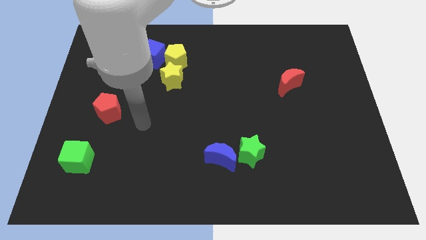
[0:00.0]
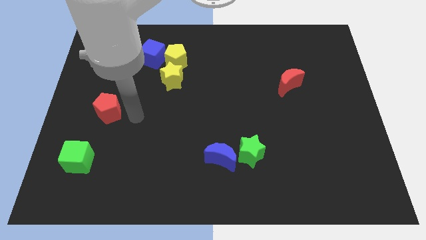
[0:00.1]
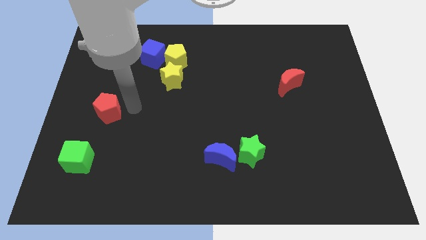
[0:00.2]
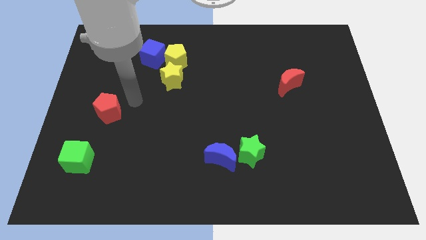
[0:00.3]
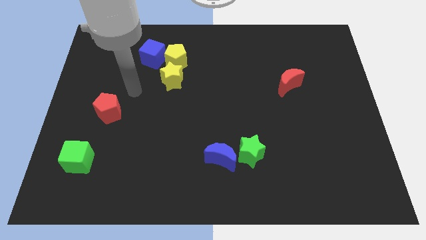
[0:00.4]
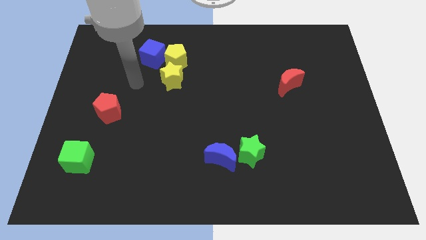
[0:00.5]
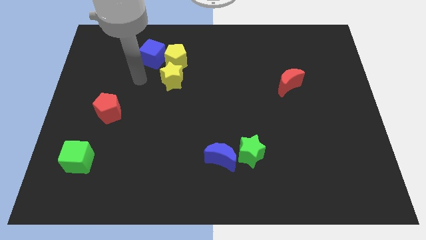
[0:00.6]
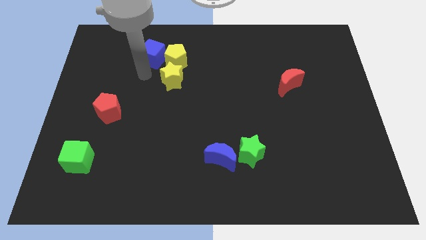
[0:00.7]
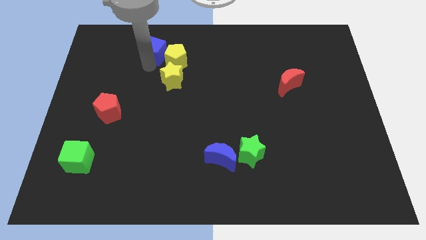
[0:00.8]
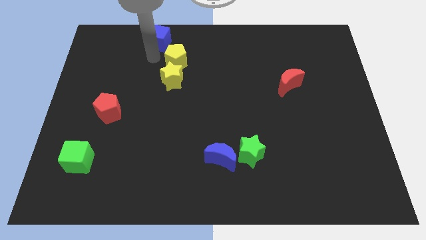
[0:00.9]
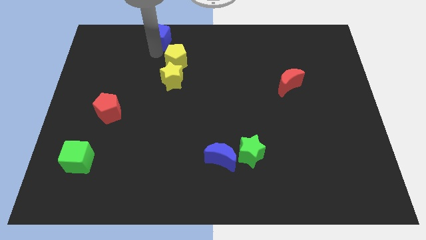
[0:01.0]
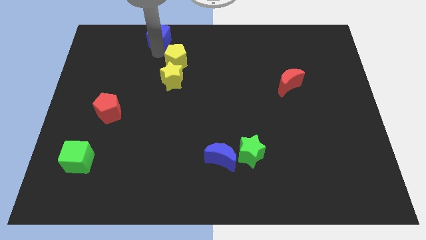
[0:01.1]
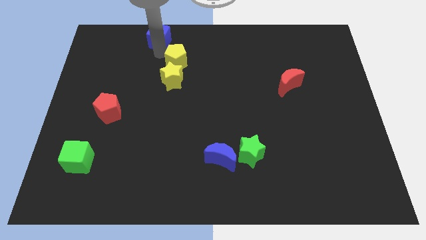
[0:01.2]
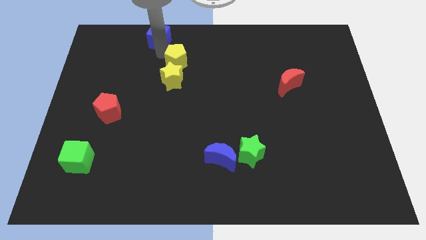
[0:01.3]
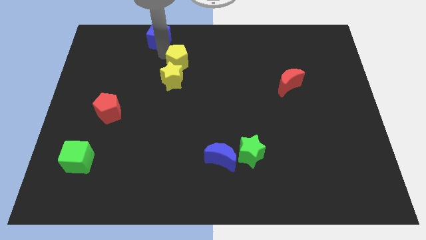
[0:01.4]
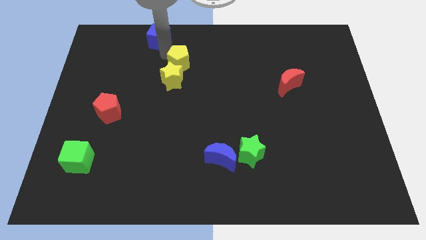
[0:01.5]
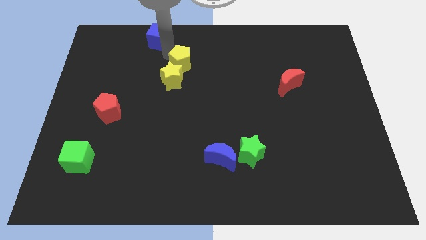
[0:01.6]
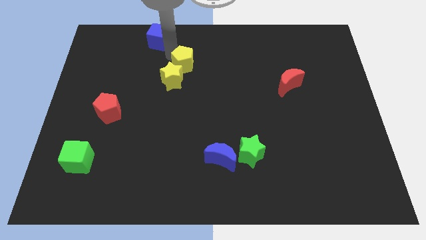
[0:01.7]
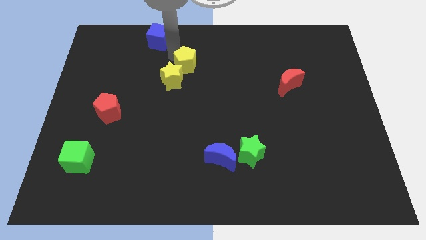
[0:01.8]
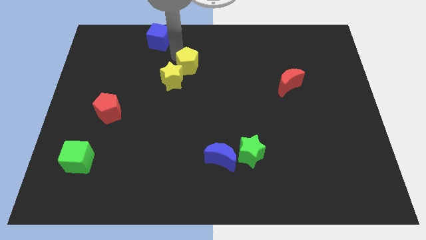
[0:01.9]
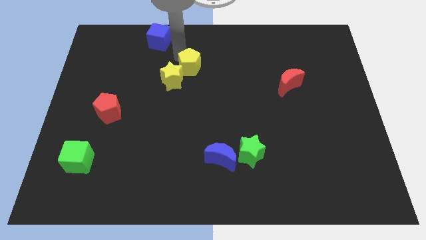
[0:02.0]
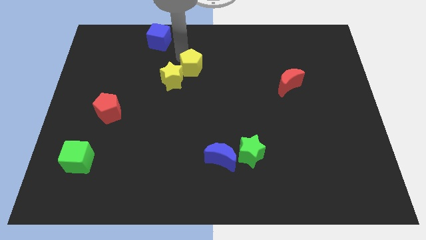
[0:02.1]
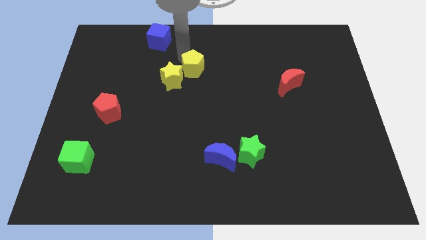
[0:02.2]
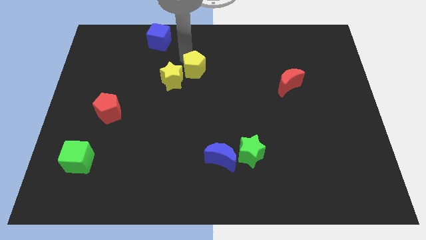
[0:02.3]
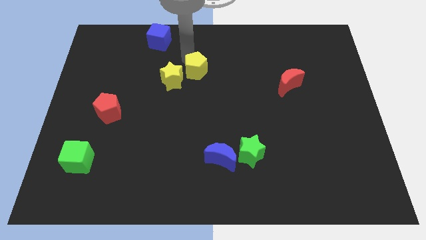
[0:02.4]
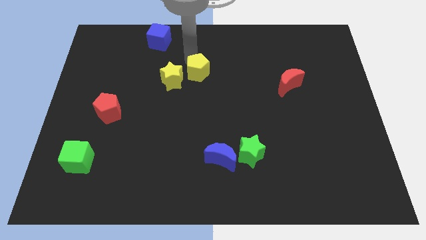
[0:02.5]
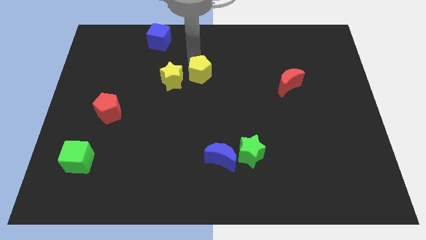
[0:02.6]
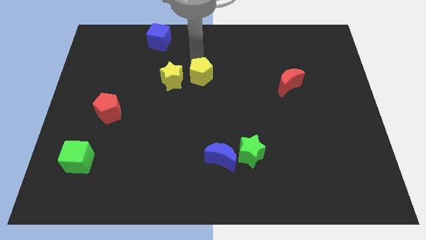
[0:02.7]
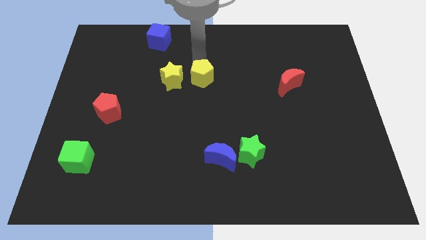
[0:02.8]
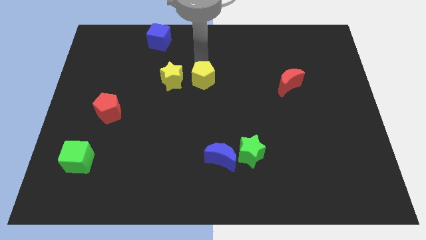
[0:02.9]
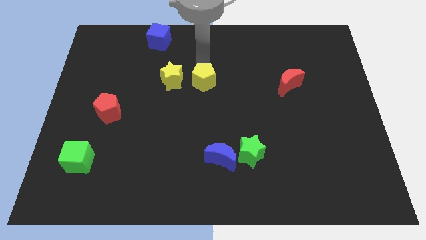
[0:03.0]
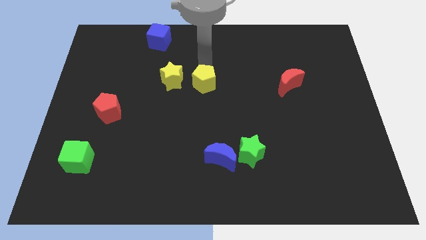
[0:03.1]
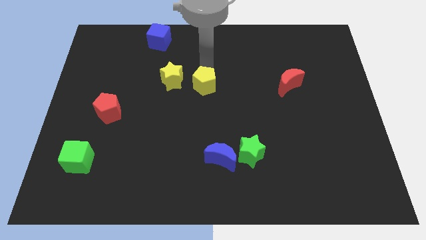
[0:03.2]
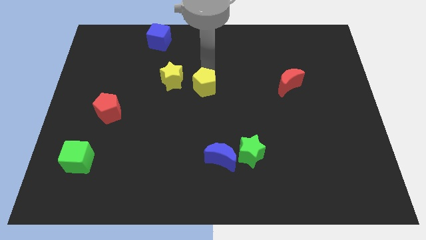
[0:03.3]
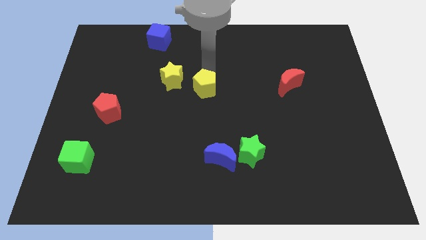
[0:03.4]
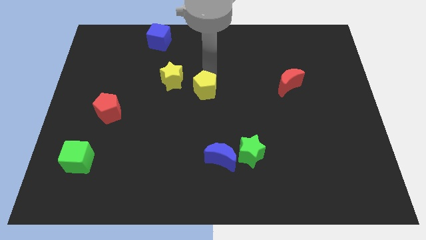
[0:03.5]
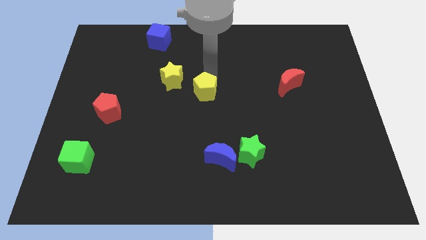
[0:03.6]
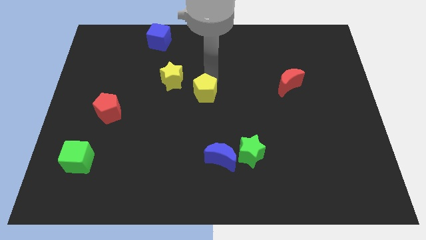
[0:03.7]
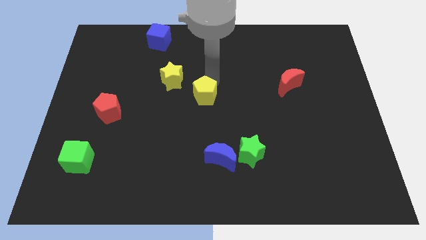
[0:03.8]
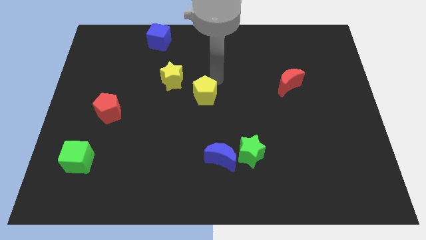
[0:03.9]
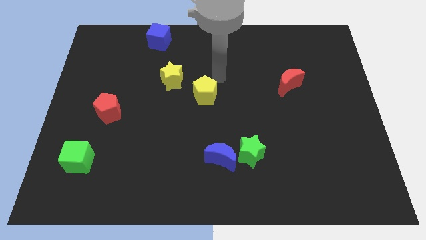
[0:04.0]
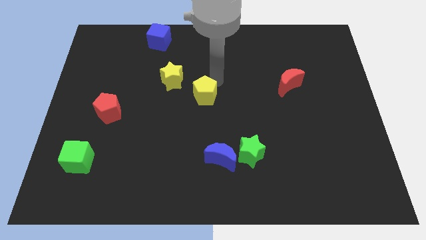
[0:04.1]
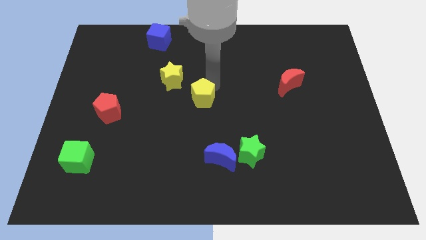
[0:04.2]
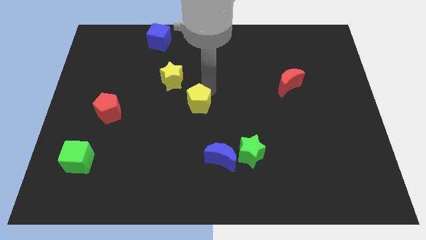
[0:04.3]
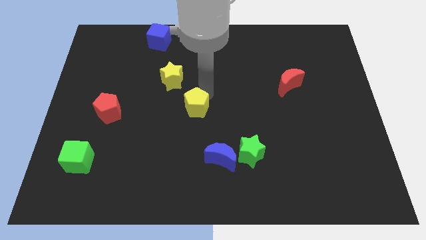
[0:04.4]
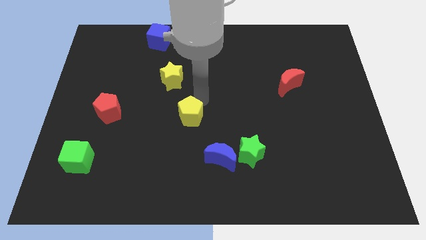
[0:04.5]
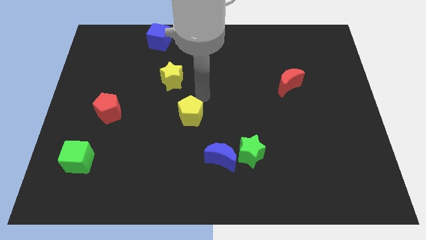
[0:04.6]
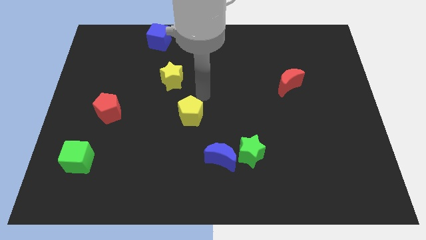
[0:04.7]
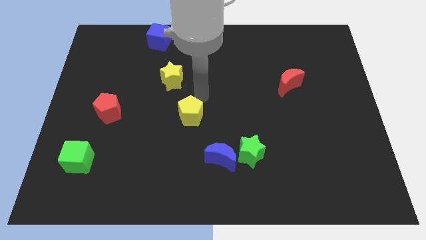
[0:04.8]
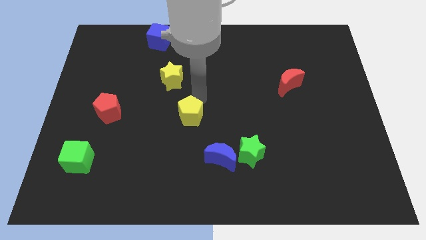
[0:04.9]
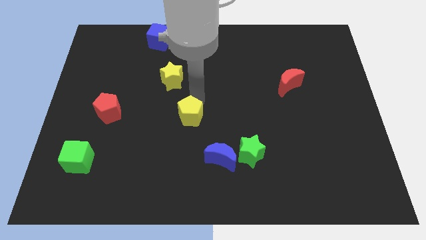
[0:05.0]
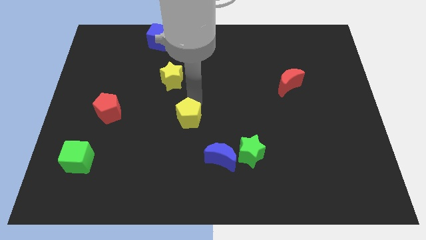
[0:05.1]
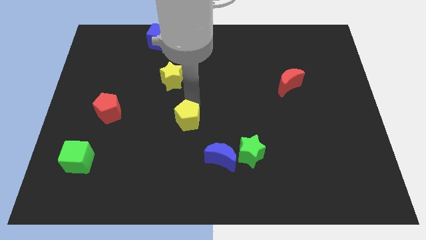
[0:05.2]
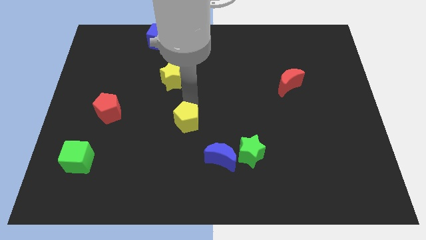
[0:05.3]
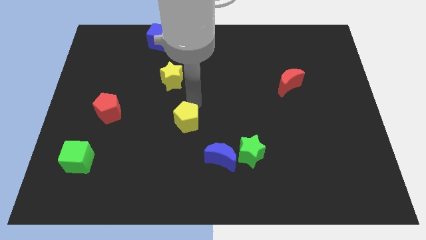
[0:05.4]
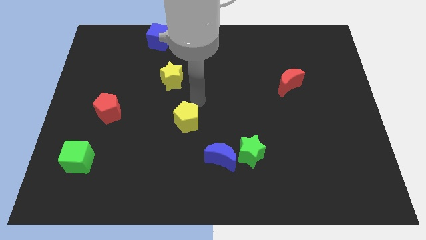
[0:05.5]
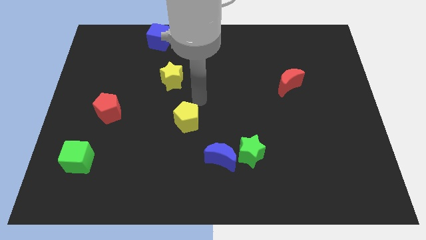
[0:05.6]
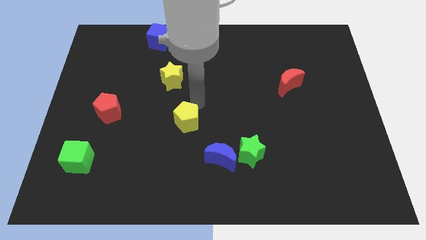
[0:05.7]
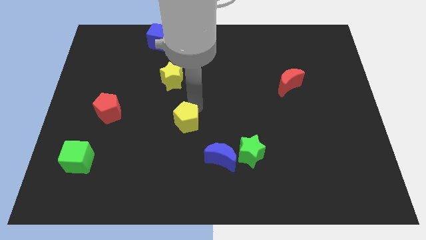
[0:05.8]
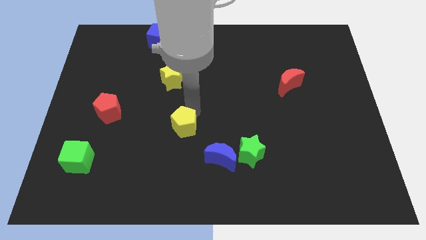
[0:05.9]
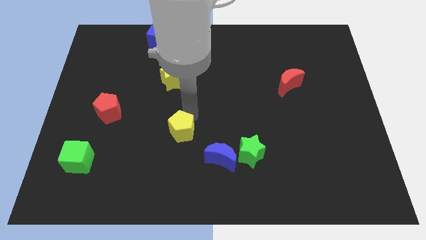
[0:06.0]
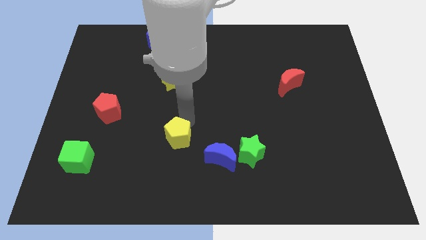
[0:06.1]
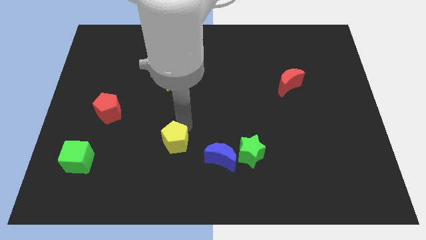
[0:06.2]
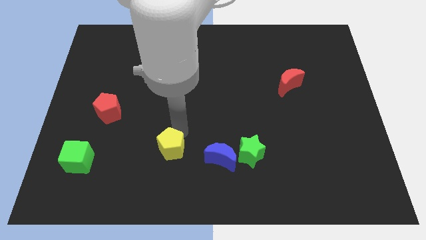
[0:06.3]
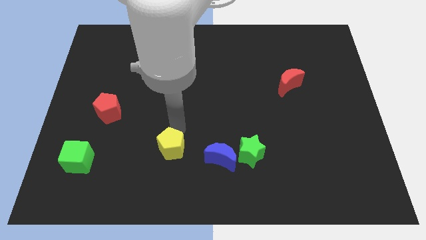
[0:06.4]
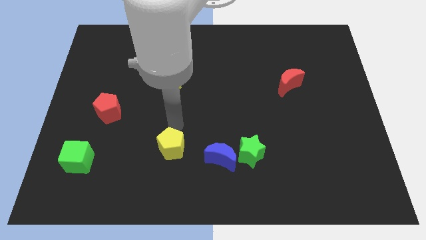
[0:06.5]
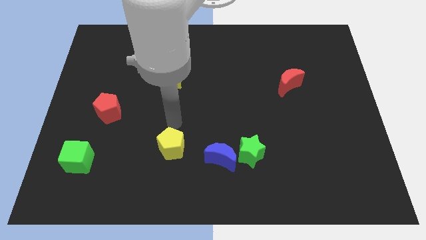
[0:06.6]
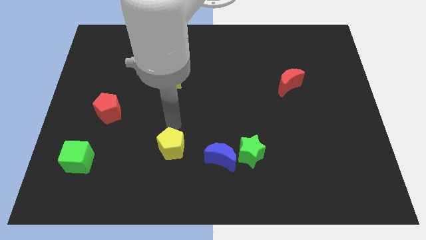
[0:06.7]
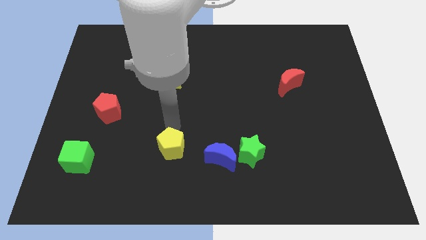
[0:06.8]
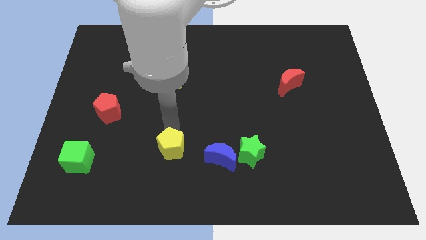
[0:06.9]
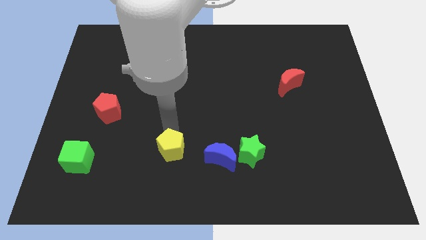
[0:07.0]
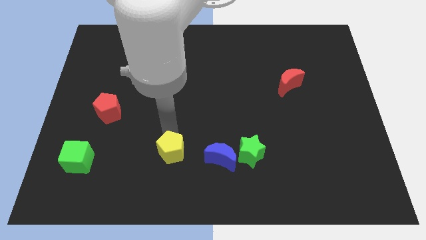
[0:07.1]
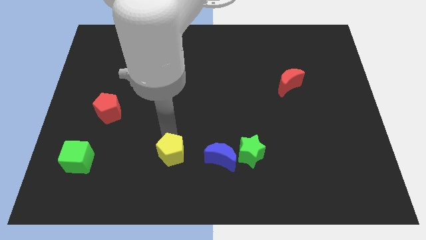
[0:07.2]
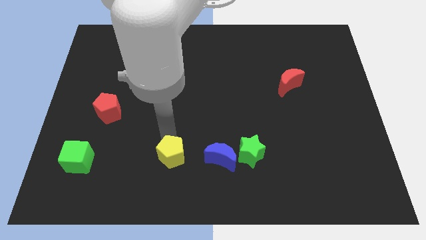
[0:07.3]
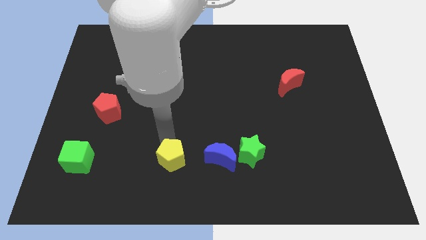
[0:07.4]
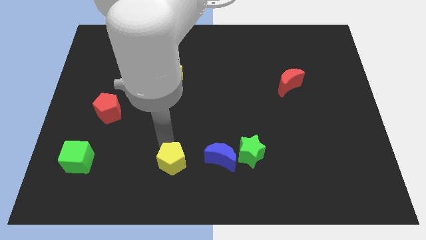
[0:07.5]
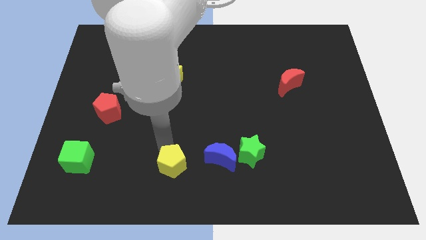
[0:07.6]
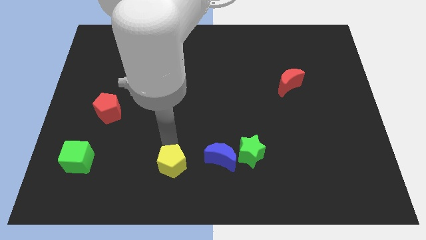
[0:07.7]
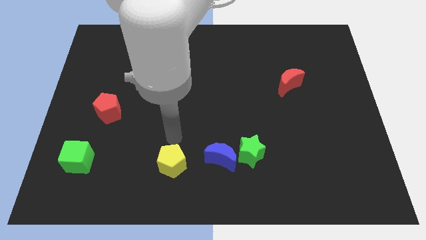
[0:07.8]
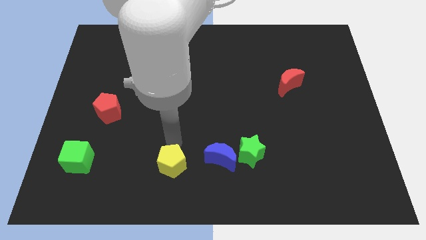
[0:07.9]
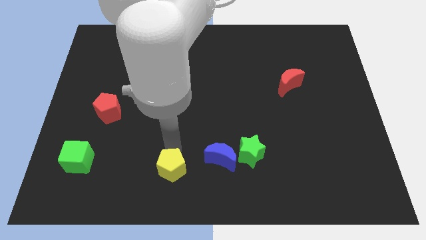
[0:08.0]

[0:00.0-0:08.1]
move the yellow pentagon to the bottom
